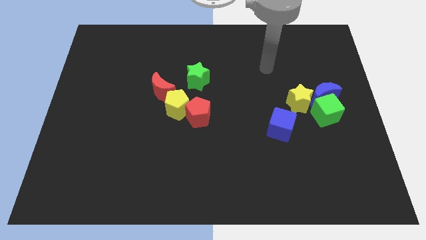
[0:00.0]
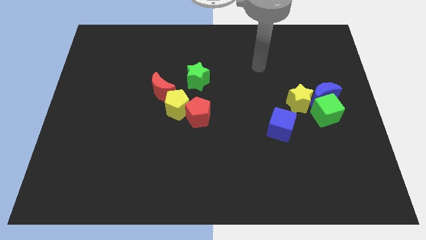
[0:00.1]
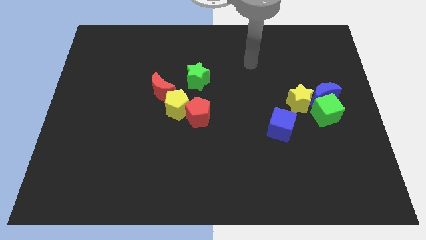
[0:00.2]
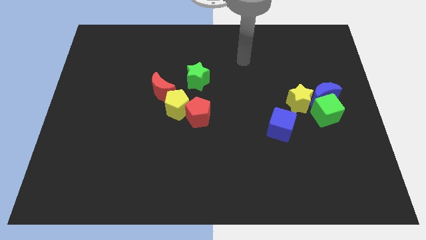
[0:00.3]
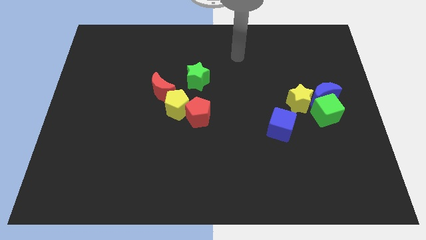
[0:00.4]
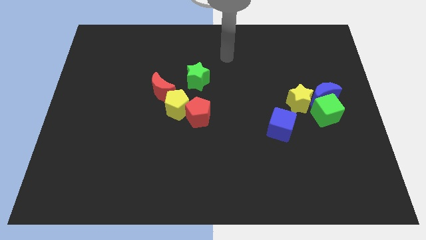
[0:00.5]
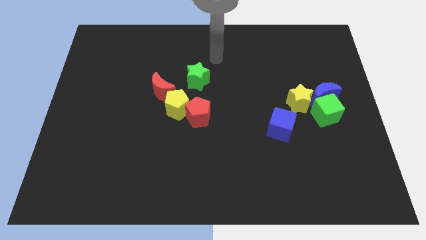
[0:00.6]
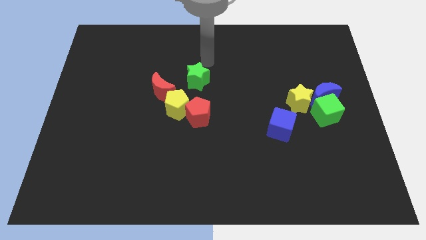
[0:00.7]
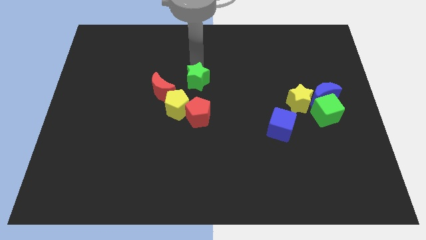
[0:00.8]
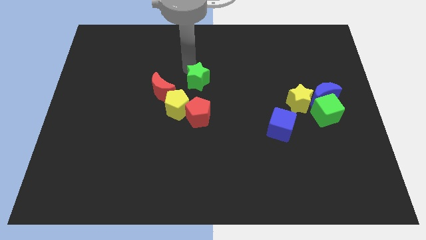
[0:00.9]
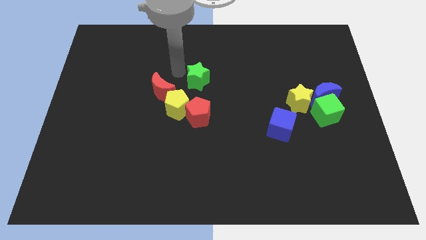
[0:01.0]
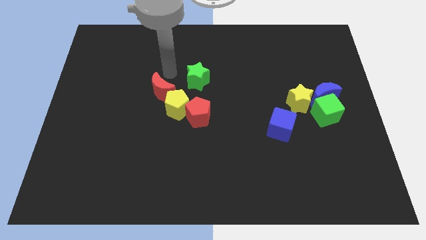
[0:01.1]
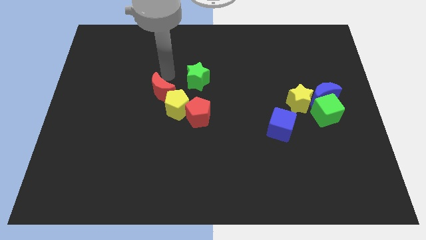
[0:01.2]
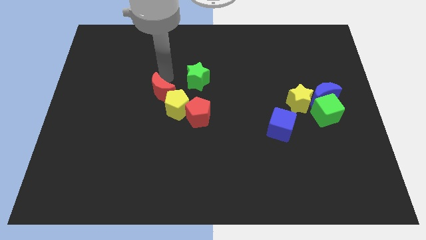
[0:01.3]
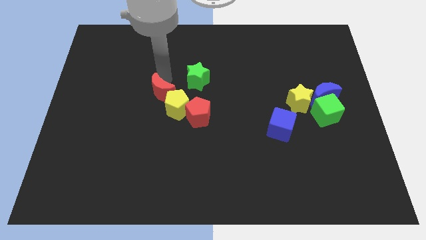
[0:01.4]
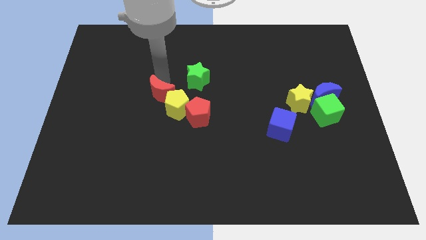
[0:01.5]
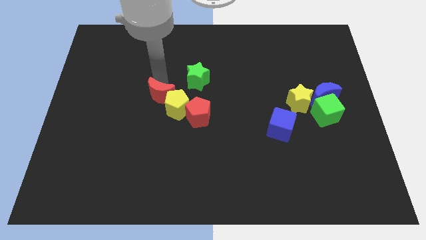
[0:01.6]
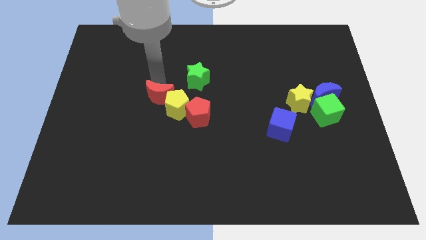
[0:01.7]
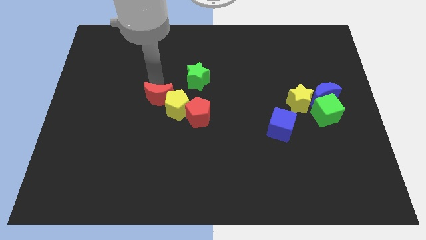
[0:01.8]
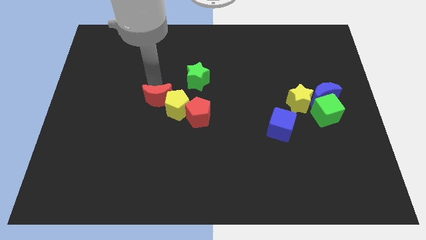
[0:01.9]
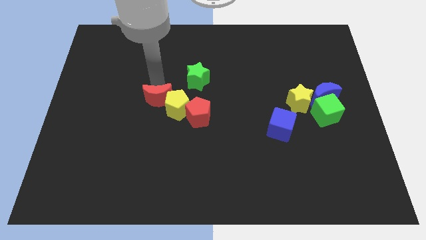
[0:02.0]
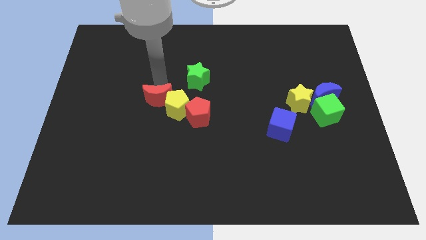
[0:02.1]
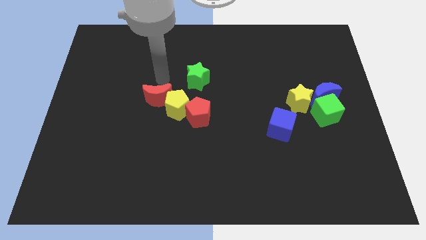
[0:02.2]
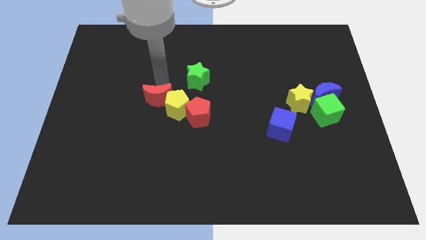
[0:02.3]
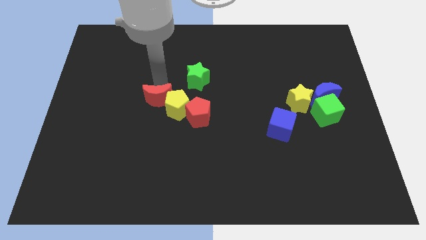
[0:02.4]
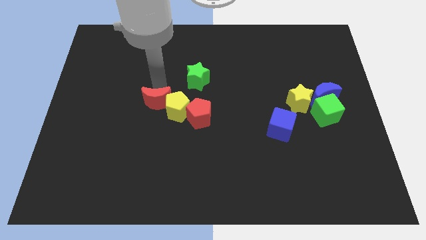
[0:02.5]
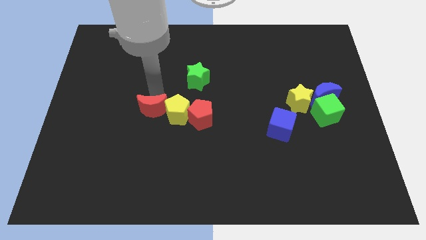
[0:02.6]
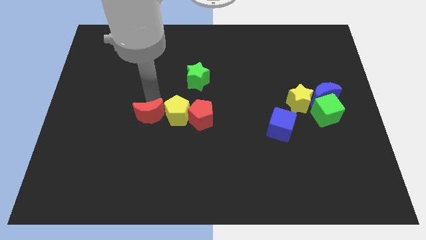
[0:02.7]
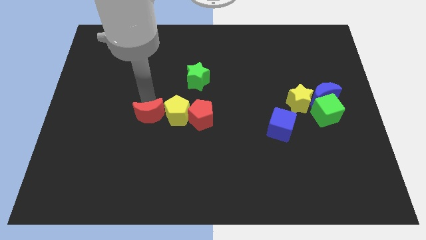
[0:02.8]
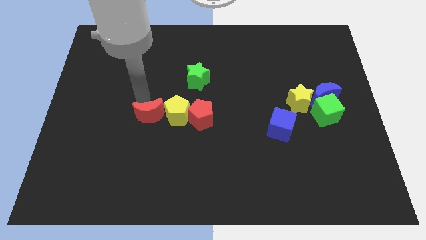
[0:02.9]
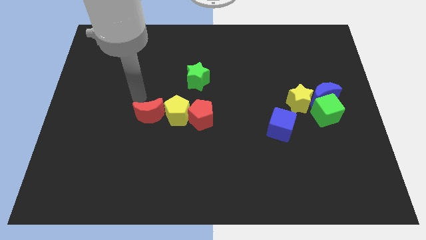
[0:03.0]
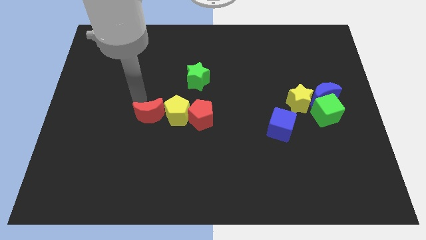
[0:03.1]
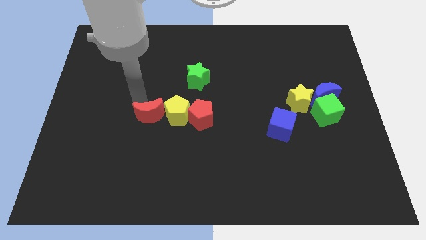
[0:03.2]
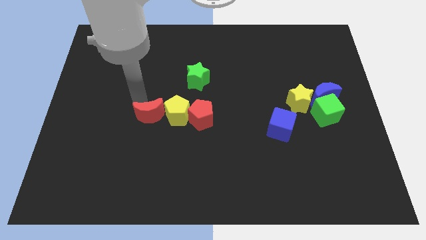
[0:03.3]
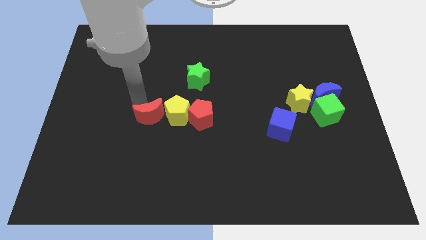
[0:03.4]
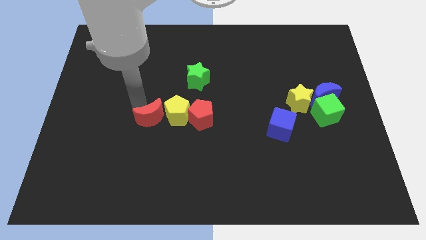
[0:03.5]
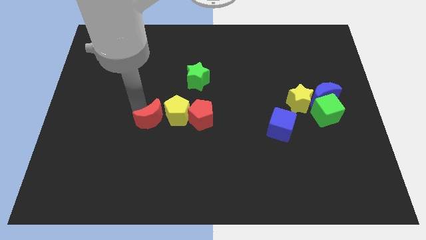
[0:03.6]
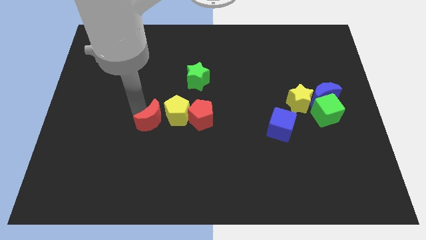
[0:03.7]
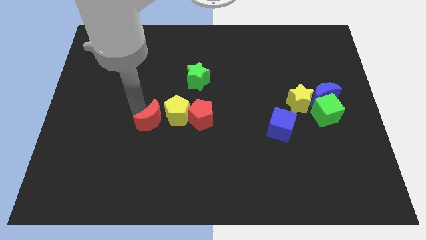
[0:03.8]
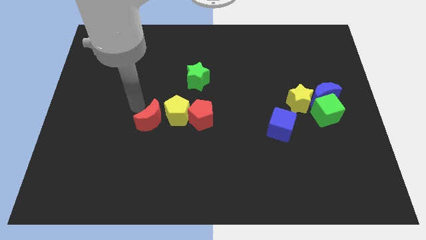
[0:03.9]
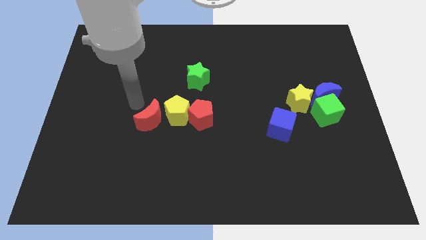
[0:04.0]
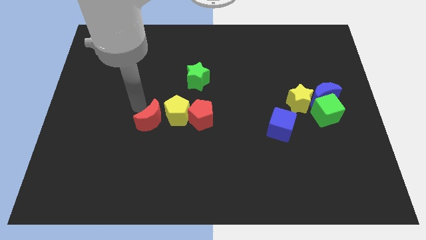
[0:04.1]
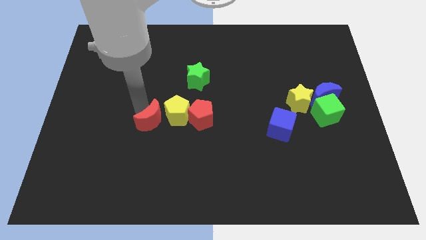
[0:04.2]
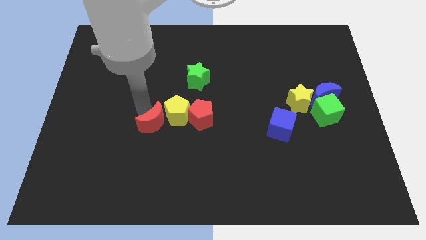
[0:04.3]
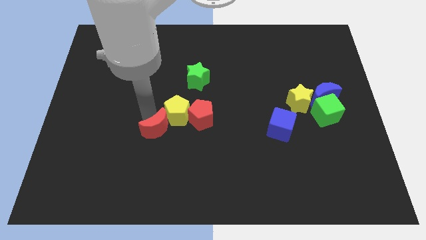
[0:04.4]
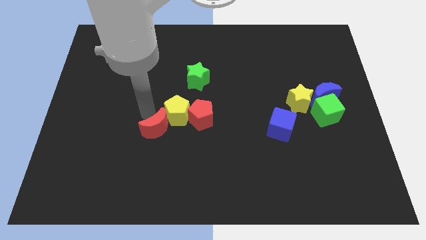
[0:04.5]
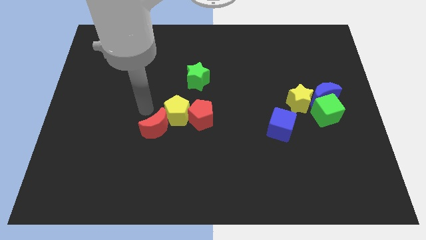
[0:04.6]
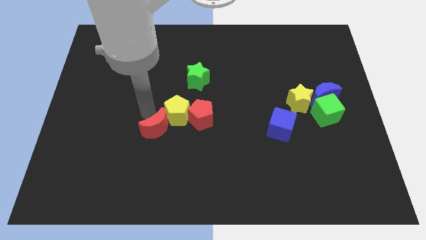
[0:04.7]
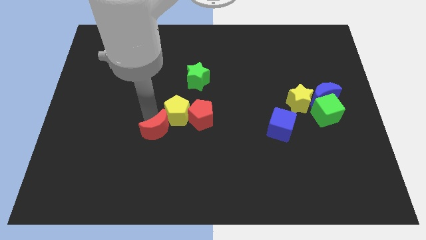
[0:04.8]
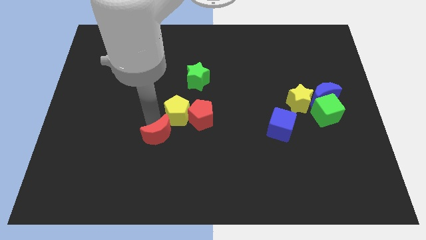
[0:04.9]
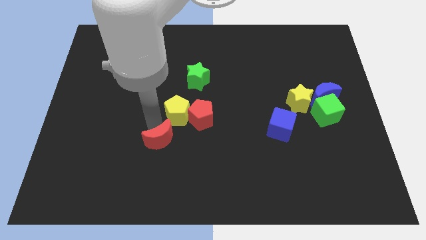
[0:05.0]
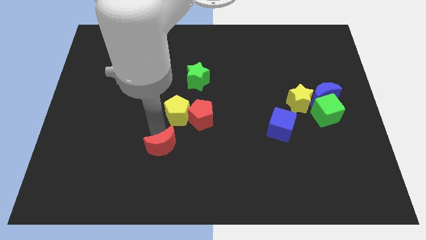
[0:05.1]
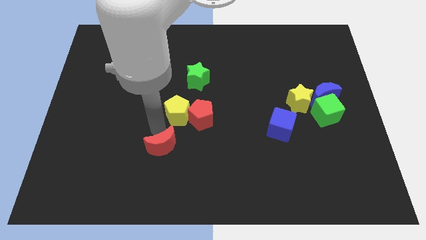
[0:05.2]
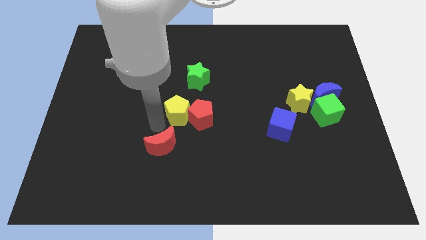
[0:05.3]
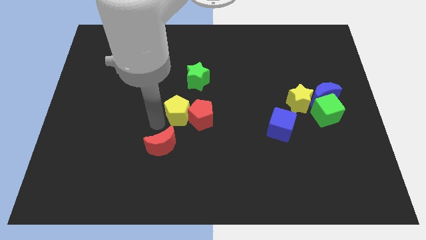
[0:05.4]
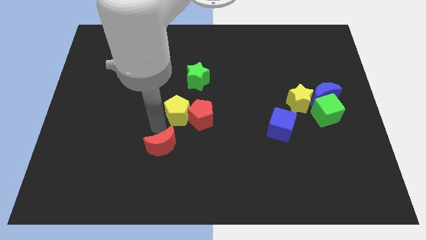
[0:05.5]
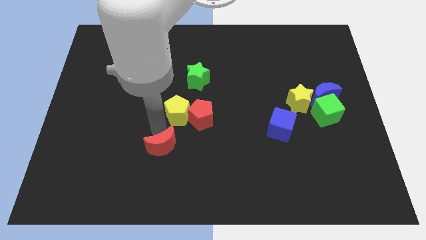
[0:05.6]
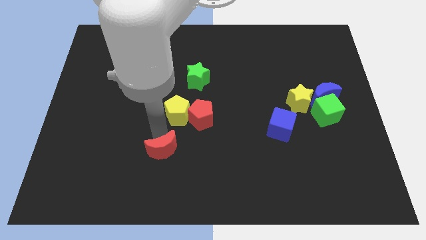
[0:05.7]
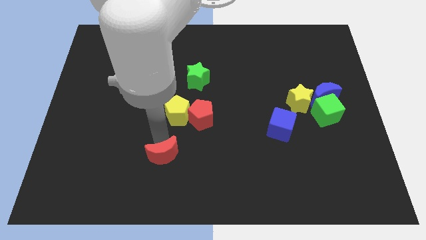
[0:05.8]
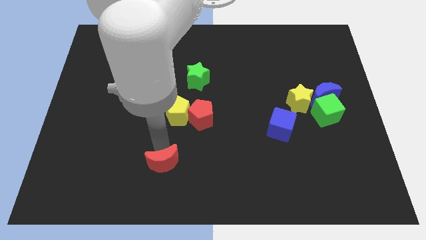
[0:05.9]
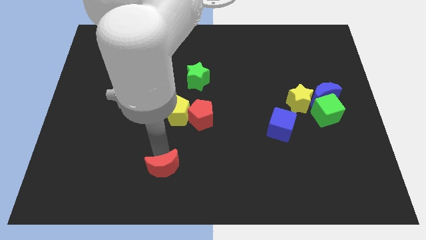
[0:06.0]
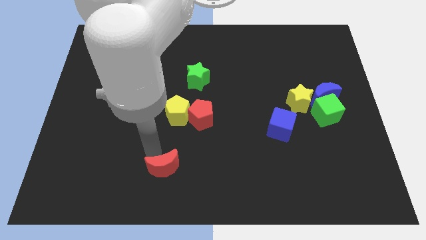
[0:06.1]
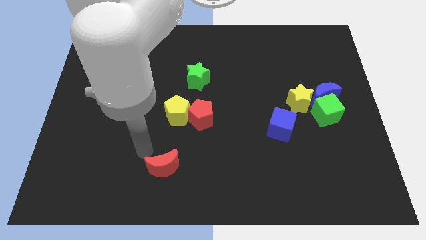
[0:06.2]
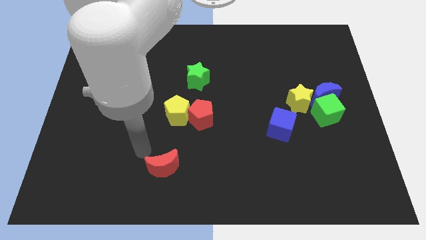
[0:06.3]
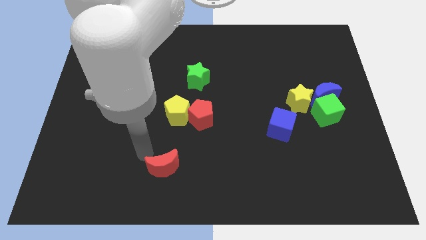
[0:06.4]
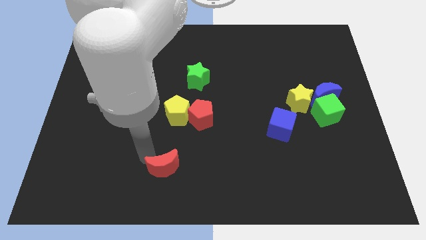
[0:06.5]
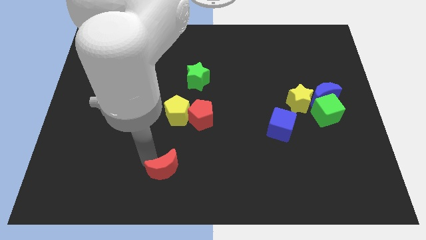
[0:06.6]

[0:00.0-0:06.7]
push the red moon to the bottom side
